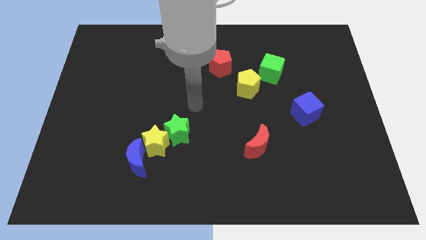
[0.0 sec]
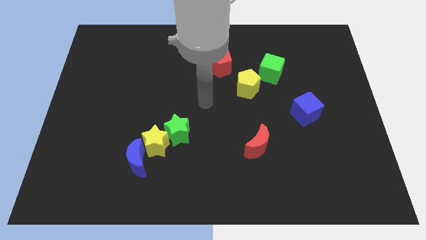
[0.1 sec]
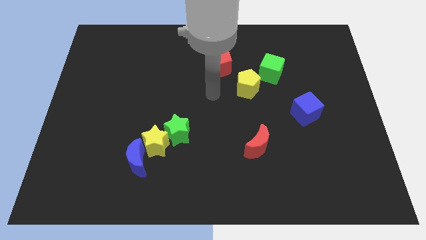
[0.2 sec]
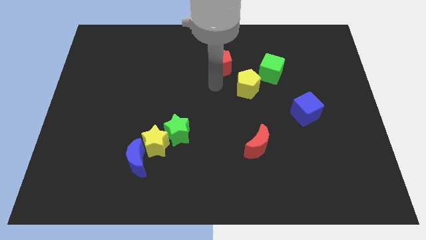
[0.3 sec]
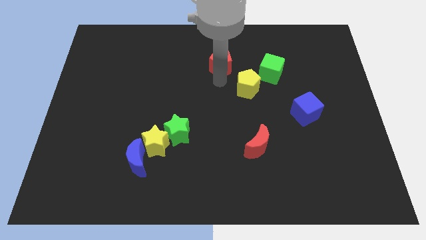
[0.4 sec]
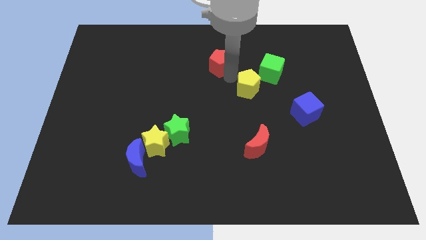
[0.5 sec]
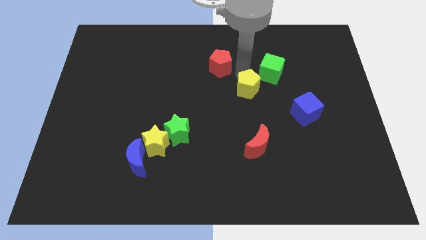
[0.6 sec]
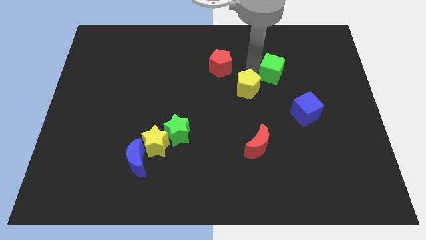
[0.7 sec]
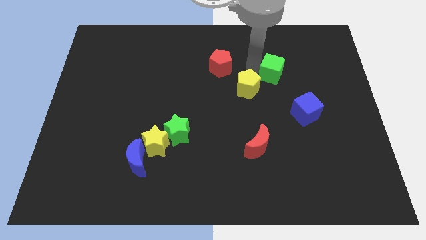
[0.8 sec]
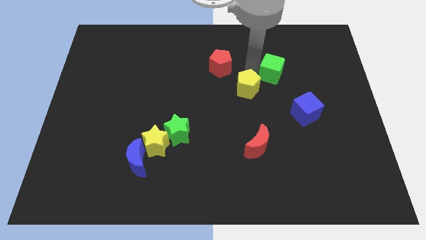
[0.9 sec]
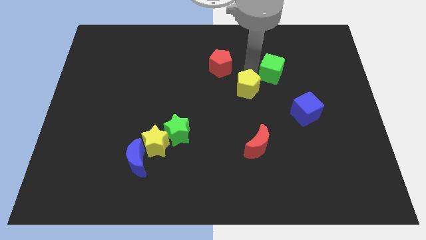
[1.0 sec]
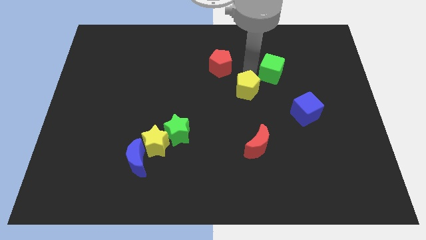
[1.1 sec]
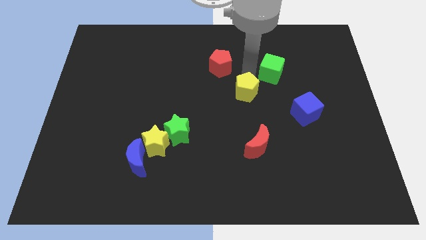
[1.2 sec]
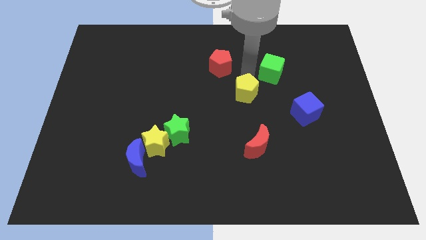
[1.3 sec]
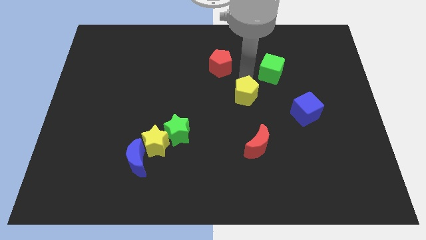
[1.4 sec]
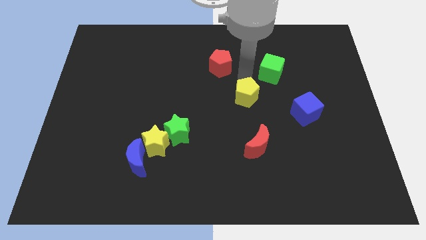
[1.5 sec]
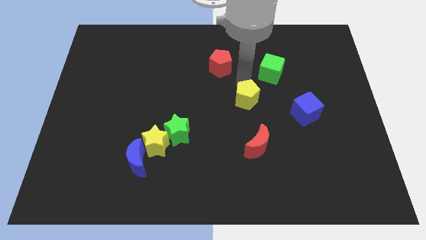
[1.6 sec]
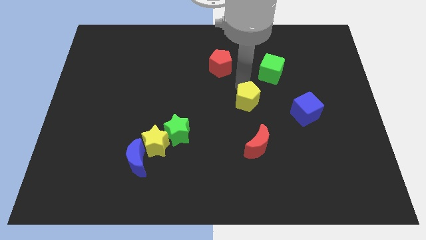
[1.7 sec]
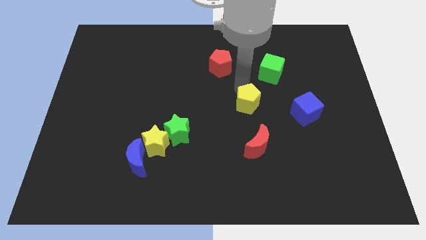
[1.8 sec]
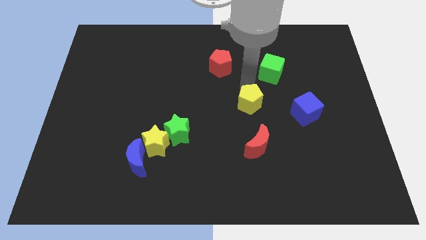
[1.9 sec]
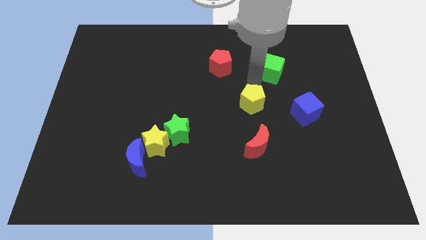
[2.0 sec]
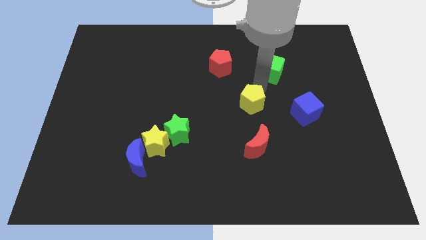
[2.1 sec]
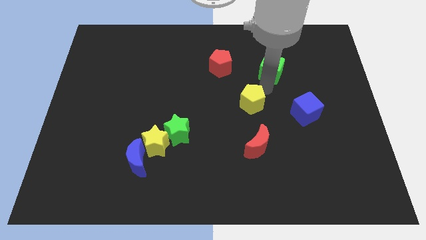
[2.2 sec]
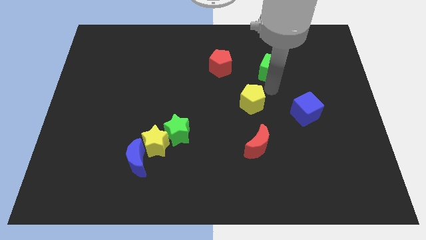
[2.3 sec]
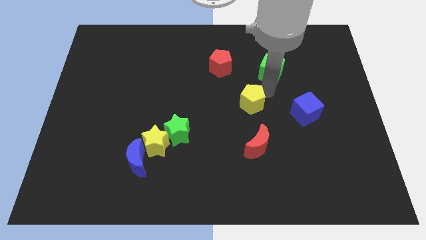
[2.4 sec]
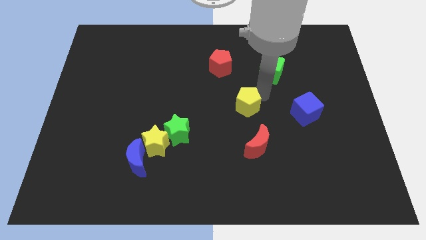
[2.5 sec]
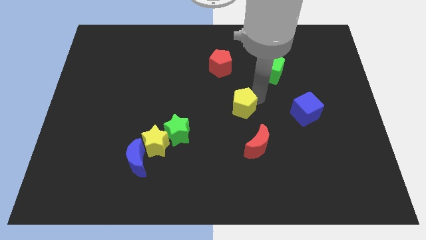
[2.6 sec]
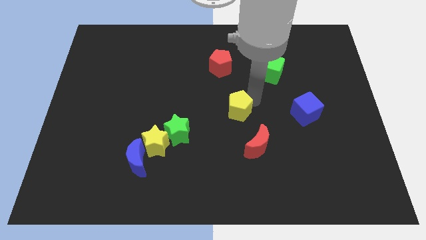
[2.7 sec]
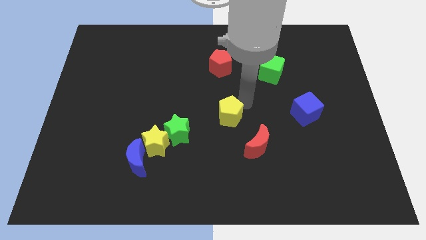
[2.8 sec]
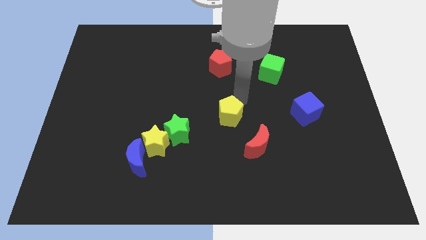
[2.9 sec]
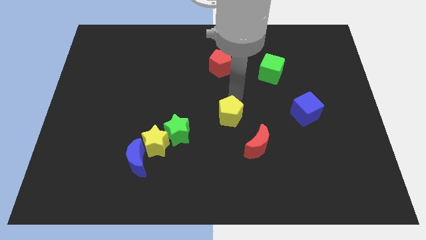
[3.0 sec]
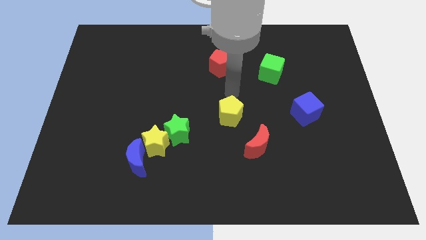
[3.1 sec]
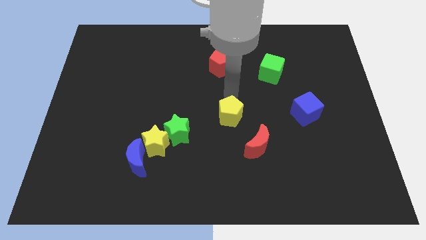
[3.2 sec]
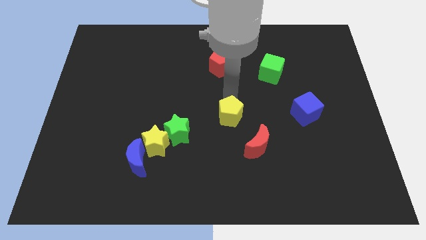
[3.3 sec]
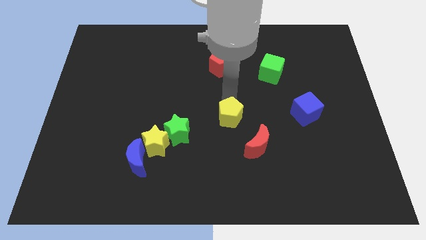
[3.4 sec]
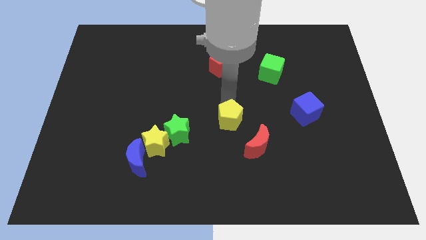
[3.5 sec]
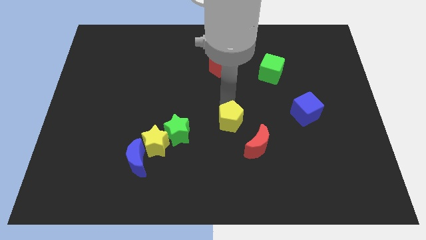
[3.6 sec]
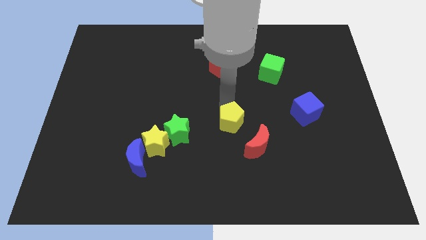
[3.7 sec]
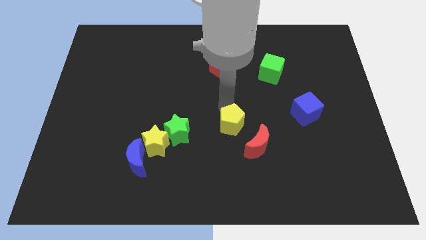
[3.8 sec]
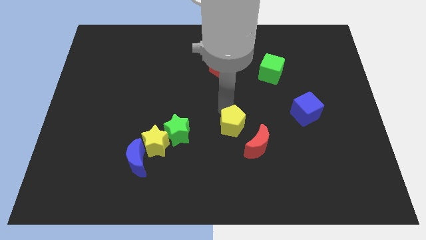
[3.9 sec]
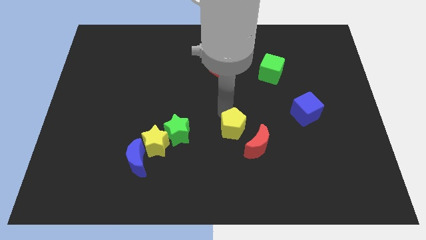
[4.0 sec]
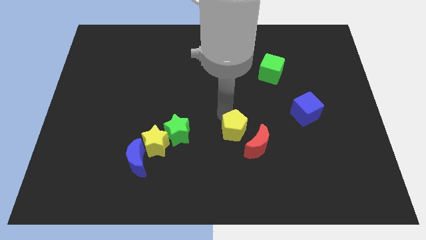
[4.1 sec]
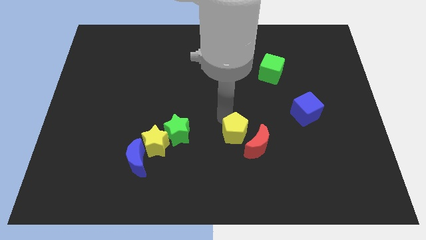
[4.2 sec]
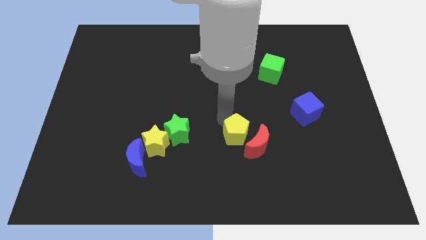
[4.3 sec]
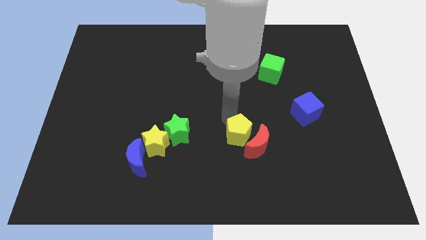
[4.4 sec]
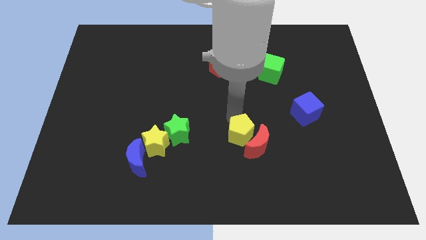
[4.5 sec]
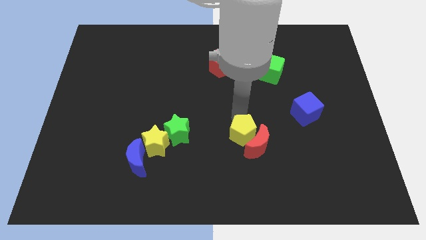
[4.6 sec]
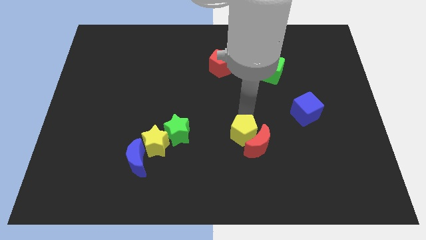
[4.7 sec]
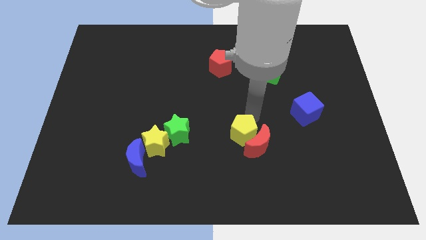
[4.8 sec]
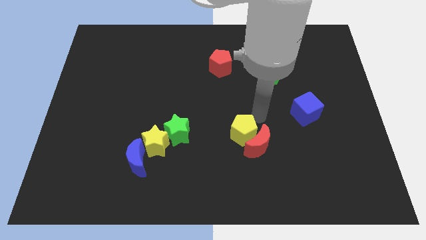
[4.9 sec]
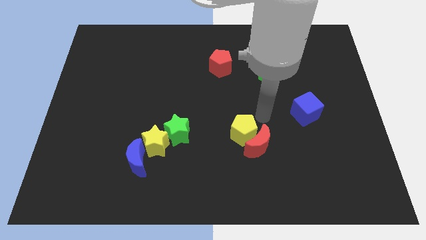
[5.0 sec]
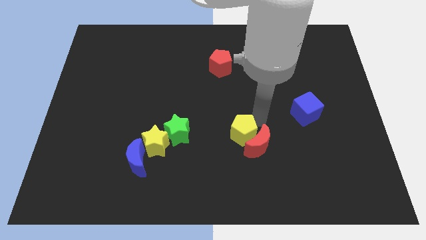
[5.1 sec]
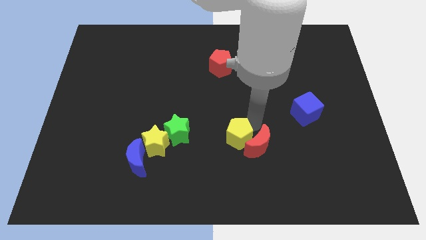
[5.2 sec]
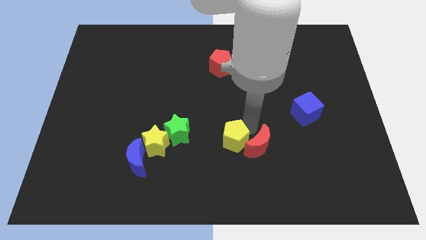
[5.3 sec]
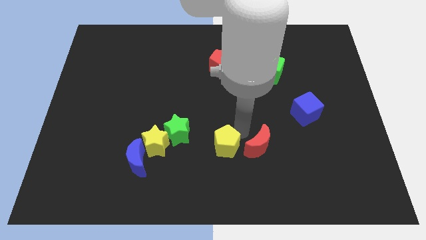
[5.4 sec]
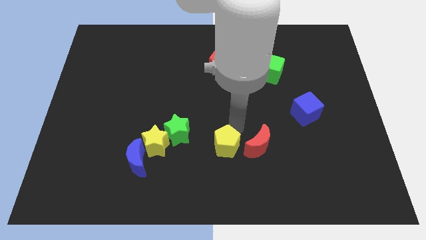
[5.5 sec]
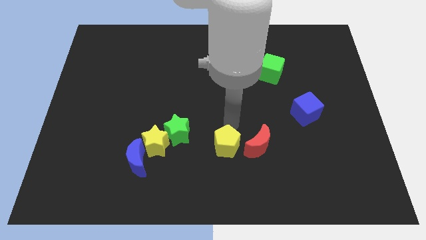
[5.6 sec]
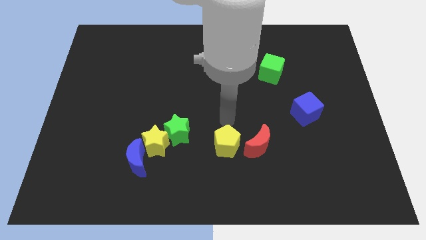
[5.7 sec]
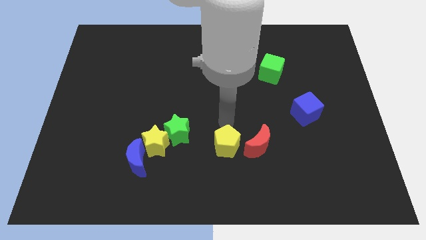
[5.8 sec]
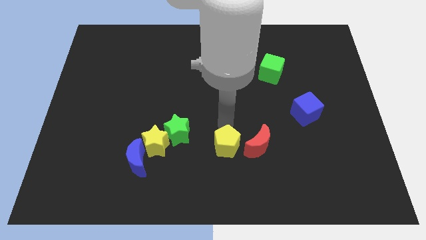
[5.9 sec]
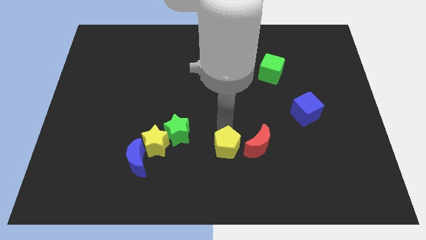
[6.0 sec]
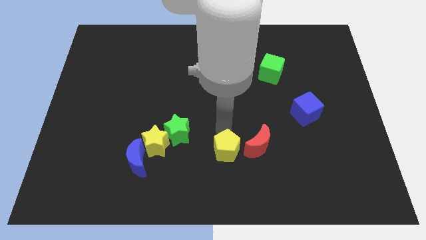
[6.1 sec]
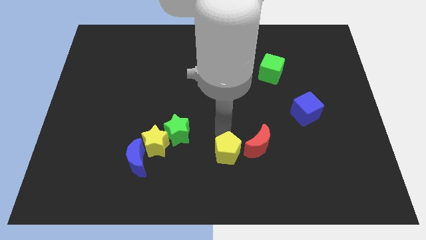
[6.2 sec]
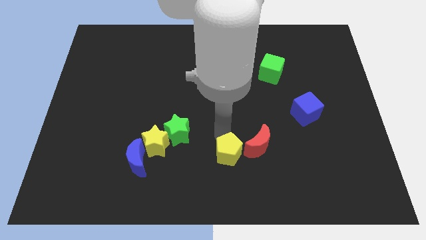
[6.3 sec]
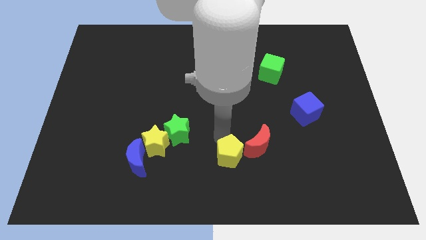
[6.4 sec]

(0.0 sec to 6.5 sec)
move the yellow pentagon to the bottom side
